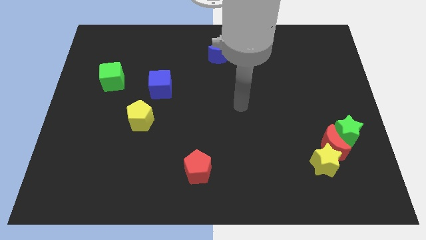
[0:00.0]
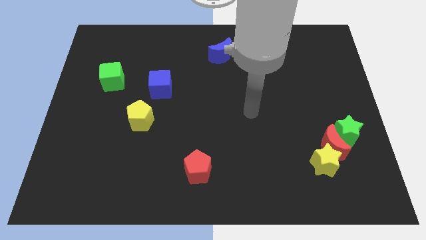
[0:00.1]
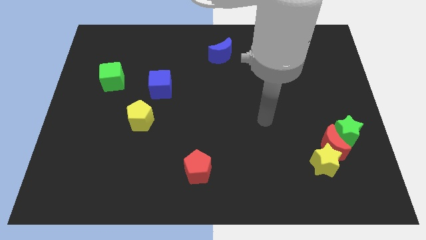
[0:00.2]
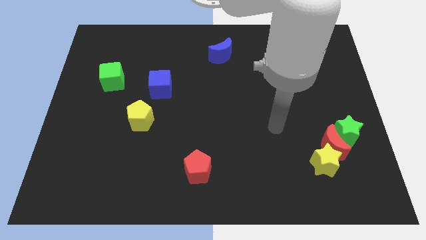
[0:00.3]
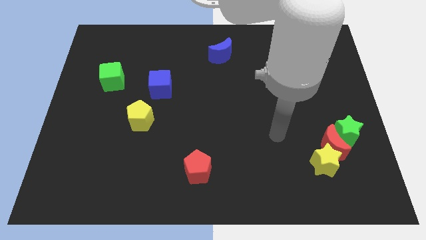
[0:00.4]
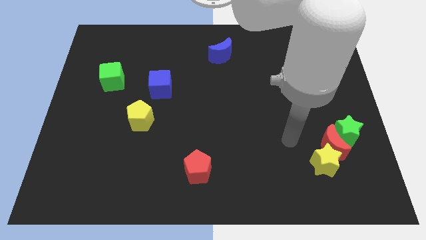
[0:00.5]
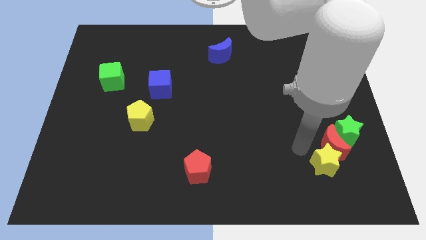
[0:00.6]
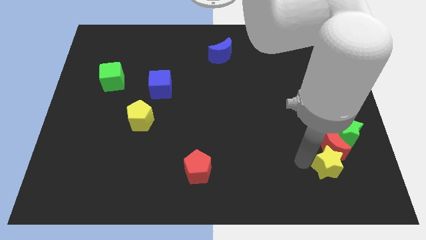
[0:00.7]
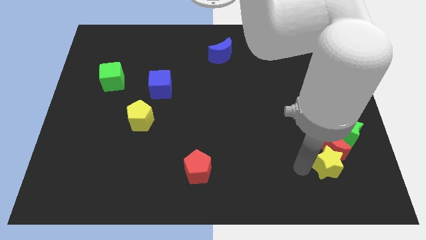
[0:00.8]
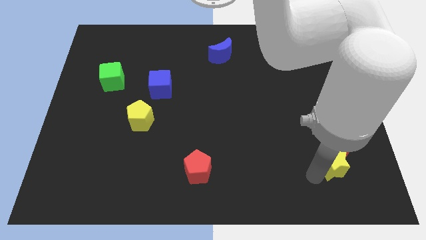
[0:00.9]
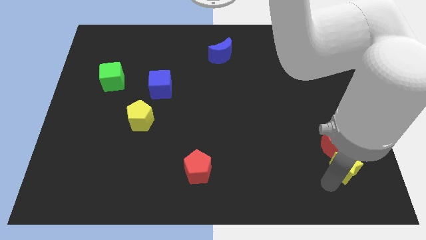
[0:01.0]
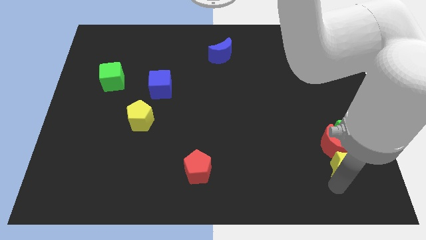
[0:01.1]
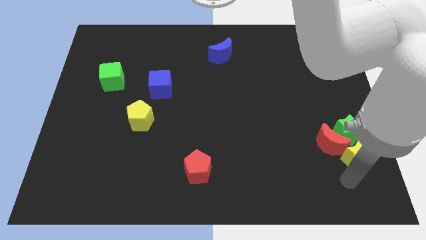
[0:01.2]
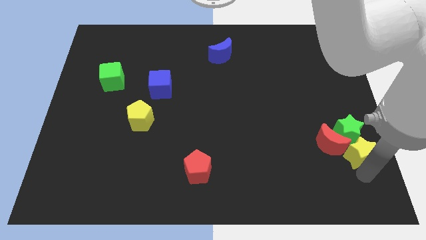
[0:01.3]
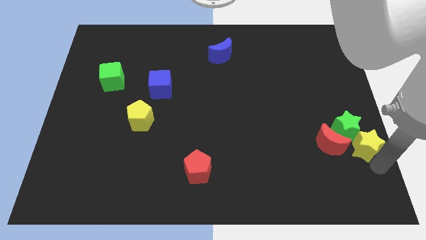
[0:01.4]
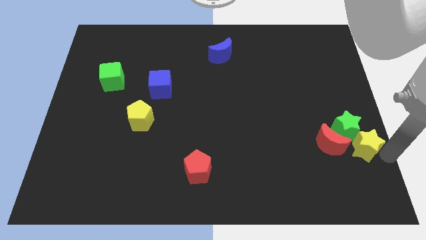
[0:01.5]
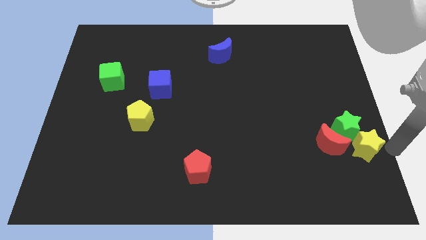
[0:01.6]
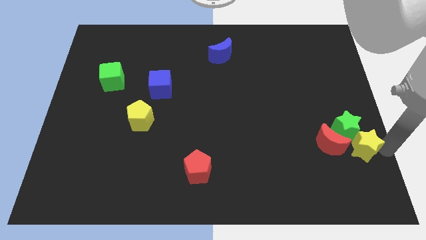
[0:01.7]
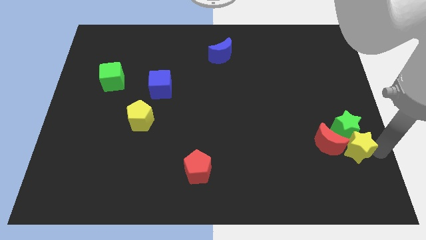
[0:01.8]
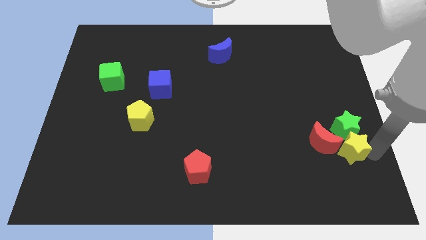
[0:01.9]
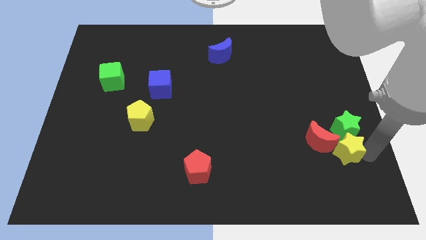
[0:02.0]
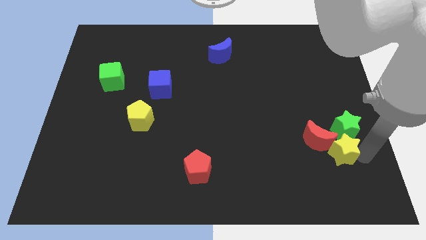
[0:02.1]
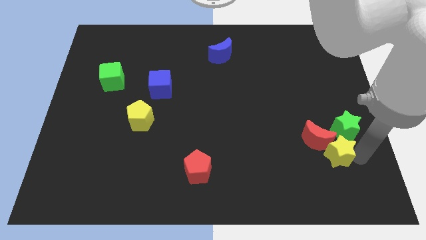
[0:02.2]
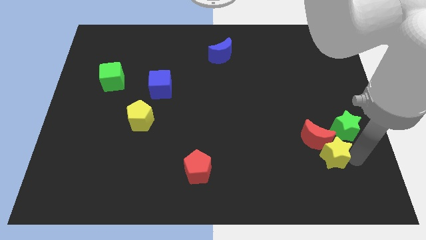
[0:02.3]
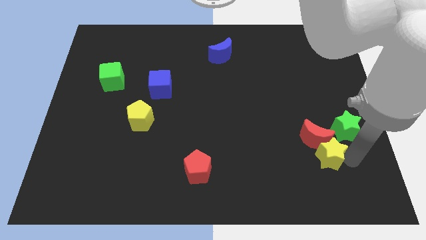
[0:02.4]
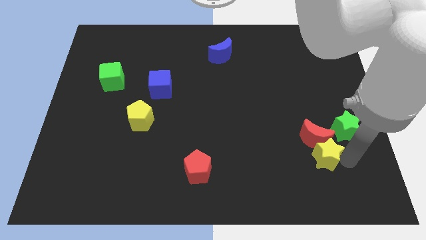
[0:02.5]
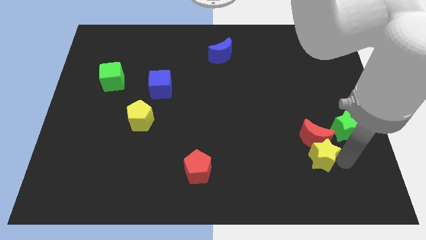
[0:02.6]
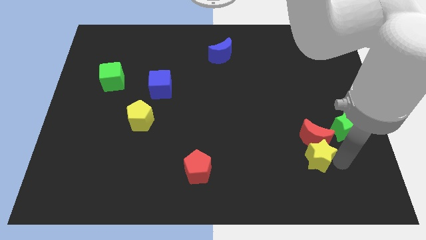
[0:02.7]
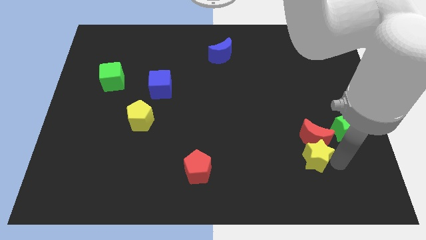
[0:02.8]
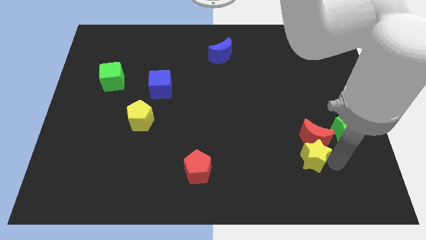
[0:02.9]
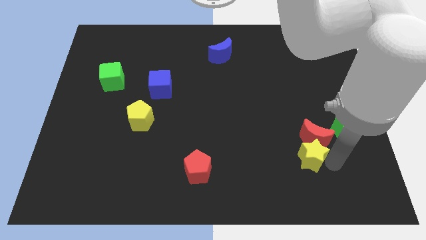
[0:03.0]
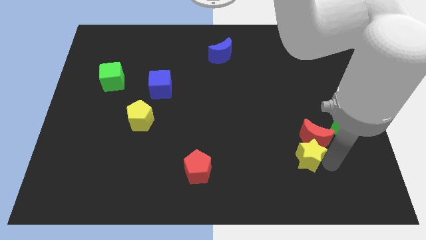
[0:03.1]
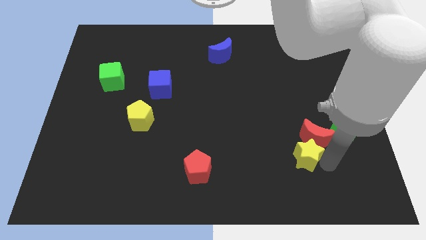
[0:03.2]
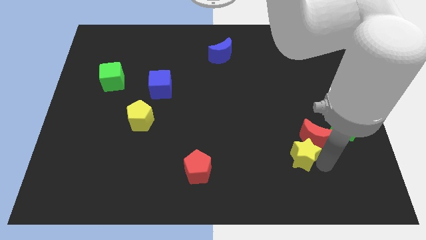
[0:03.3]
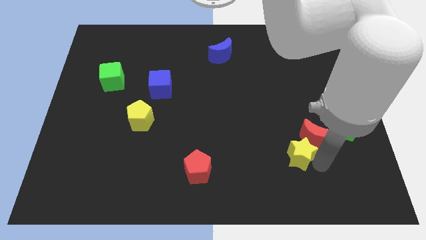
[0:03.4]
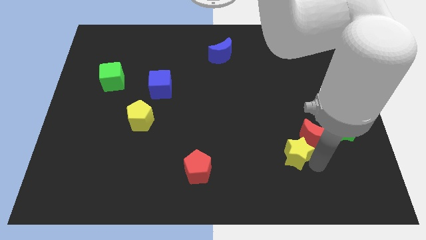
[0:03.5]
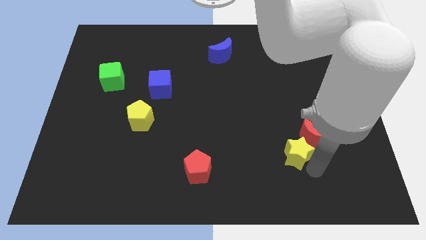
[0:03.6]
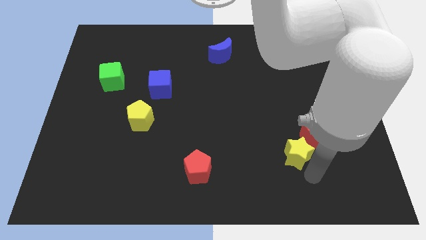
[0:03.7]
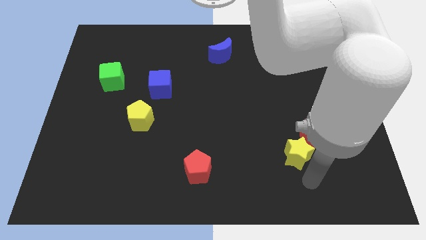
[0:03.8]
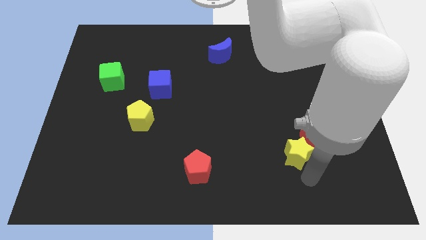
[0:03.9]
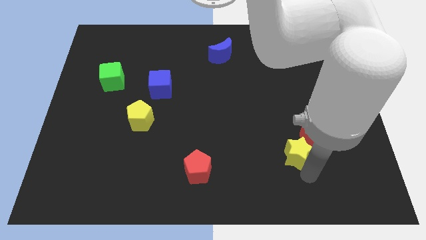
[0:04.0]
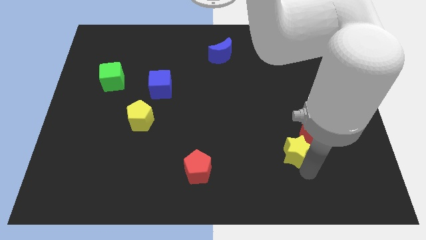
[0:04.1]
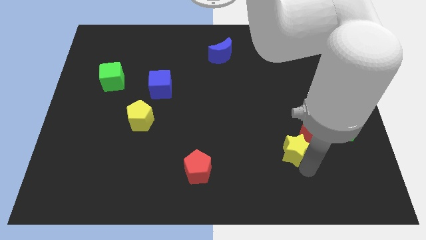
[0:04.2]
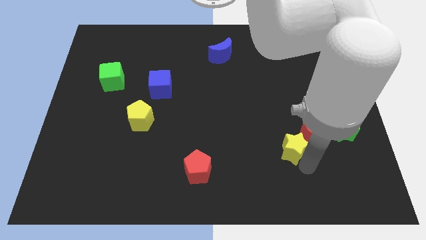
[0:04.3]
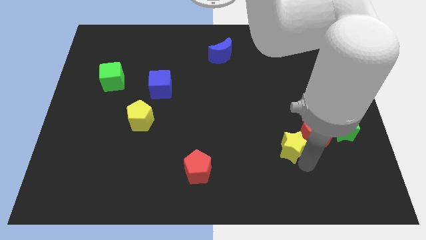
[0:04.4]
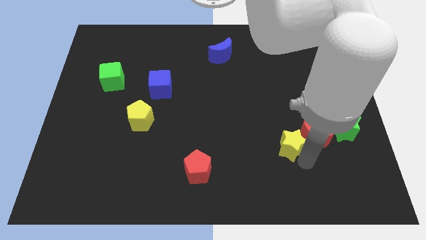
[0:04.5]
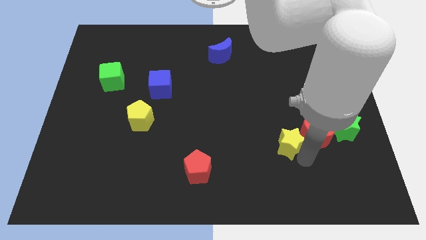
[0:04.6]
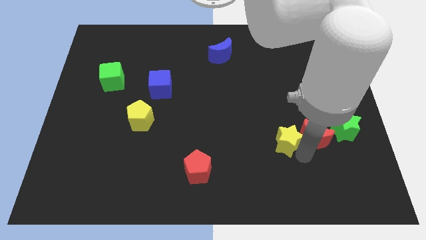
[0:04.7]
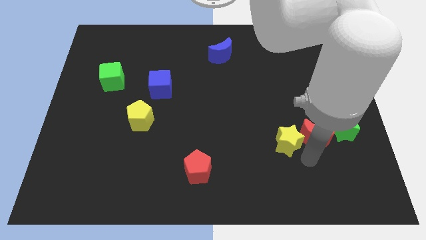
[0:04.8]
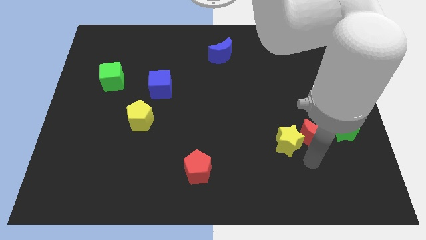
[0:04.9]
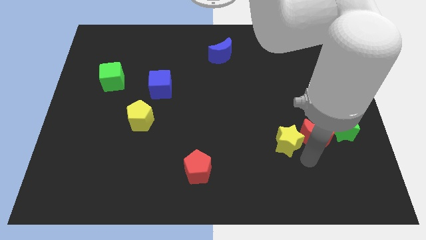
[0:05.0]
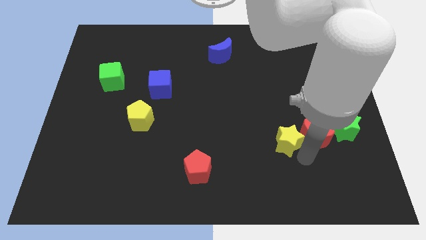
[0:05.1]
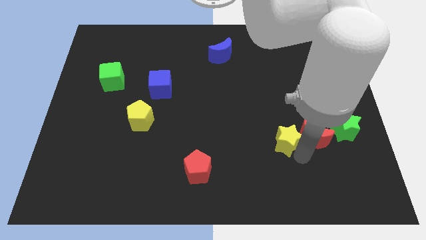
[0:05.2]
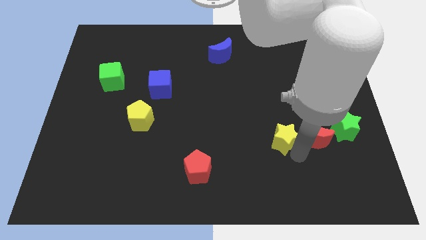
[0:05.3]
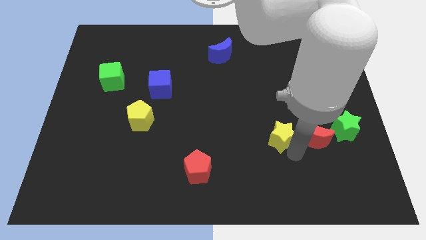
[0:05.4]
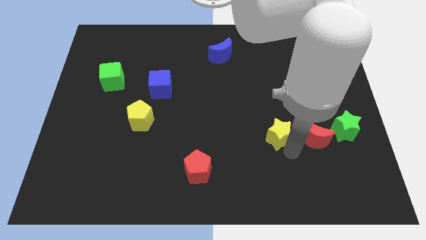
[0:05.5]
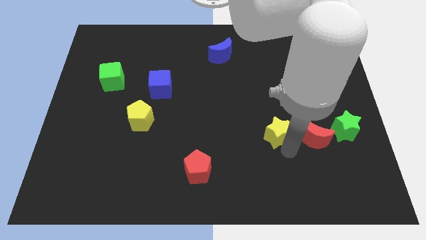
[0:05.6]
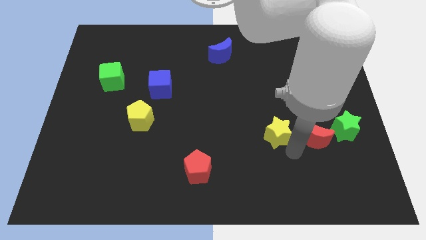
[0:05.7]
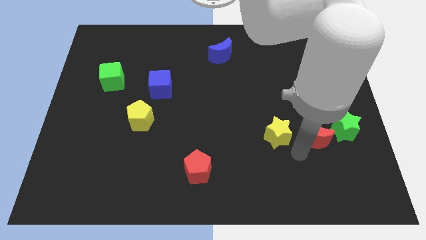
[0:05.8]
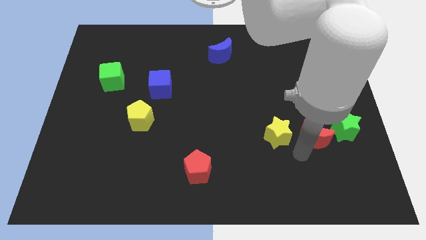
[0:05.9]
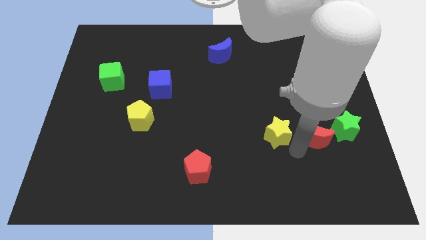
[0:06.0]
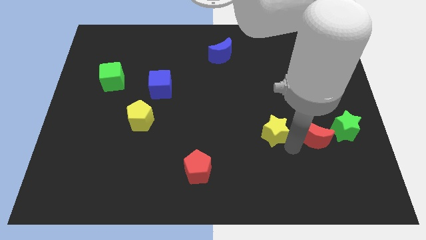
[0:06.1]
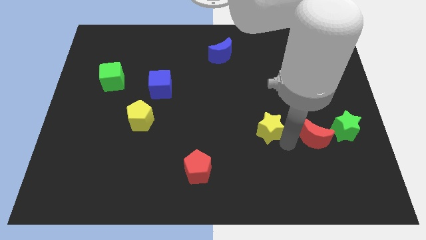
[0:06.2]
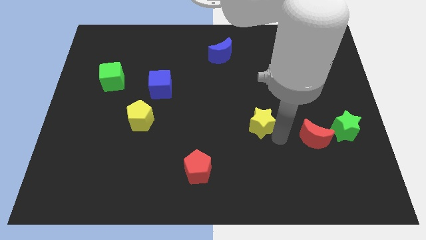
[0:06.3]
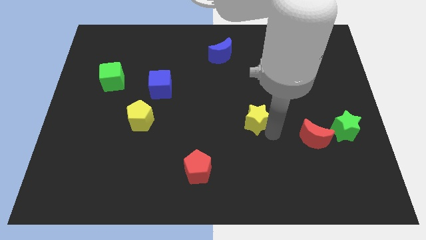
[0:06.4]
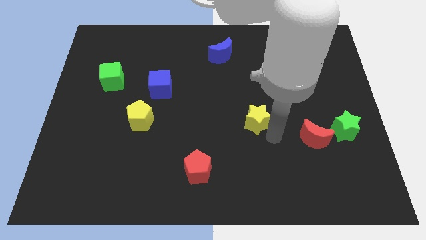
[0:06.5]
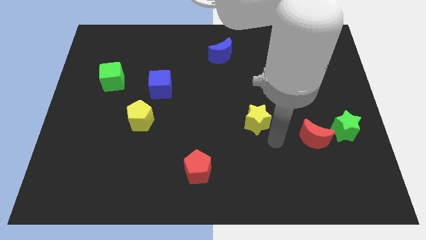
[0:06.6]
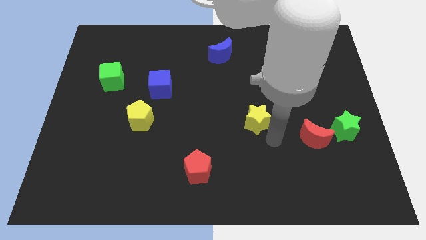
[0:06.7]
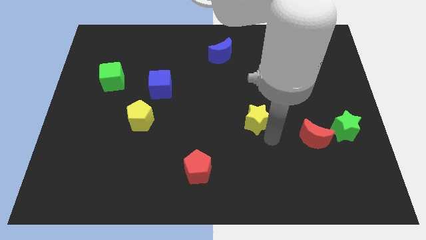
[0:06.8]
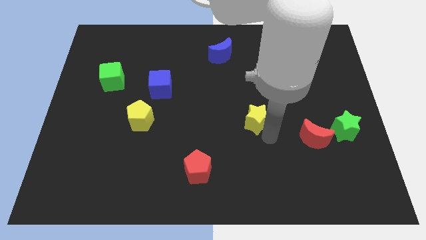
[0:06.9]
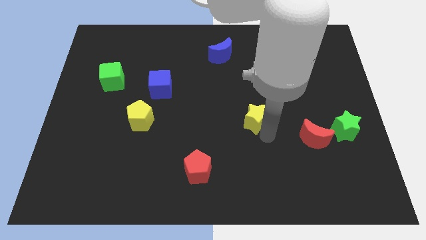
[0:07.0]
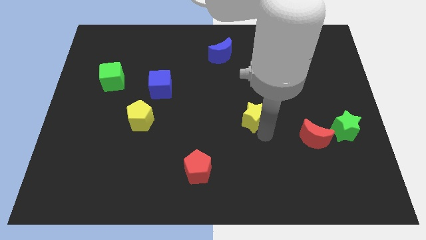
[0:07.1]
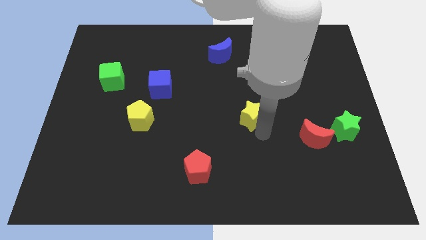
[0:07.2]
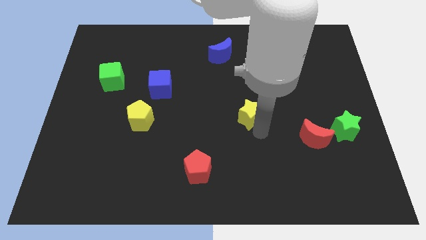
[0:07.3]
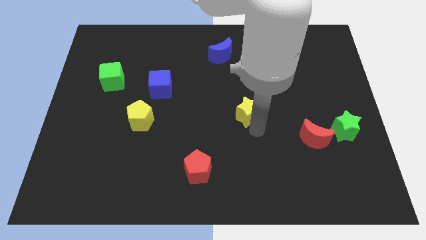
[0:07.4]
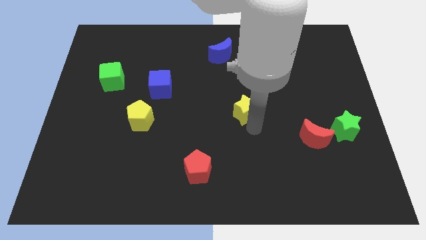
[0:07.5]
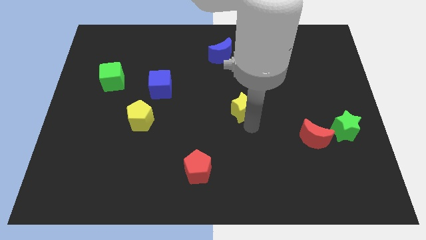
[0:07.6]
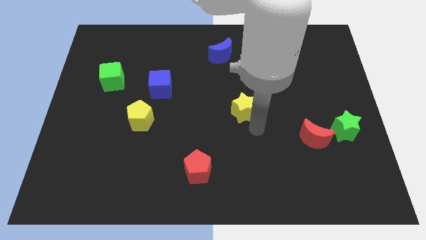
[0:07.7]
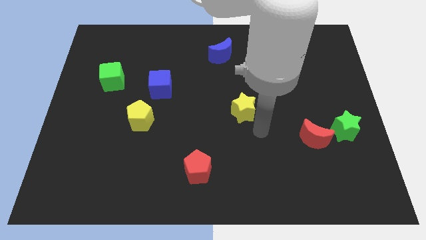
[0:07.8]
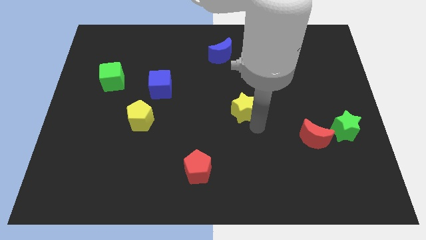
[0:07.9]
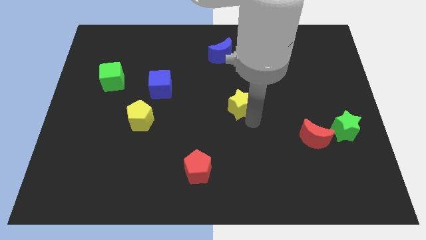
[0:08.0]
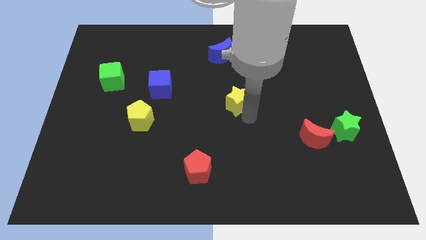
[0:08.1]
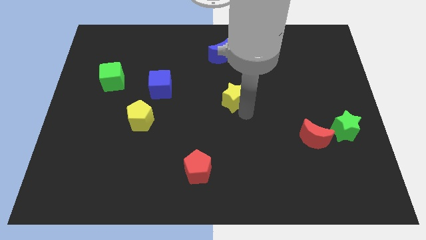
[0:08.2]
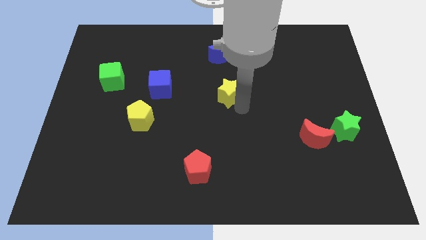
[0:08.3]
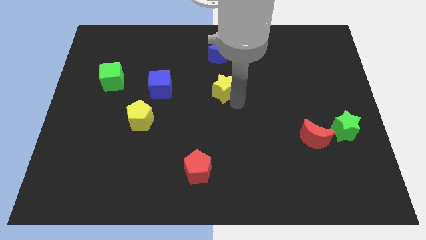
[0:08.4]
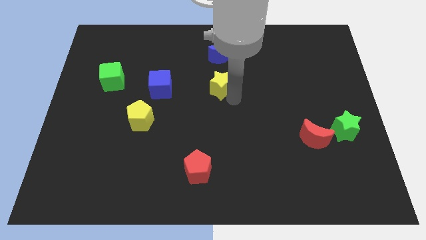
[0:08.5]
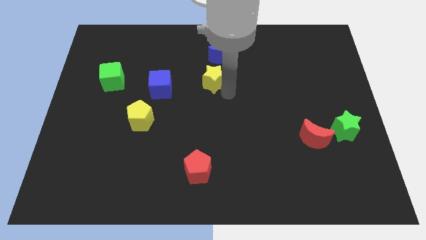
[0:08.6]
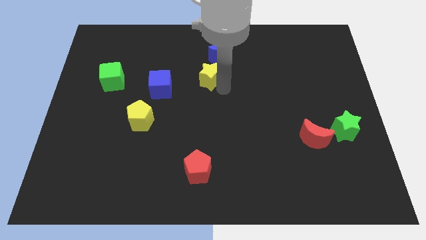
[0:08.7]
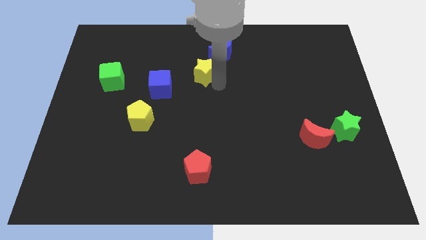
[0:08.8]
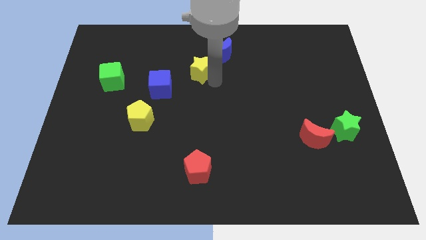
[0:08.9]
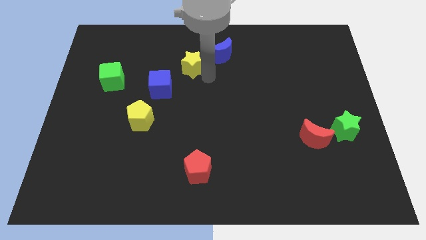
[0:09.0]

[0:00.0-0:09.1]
slide the yellow star to the left of the blue moon
